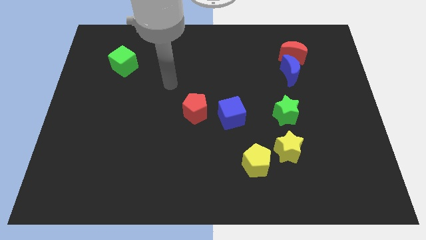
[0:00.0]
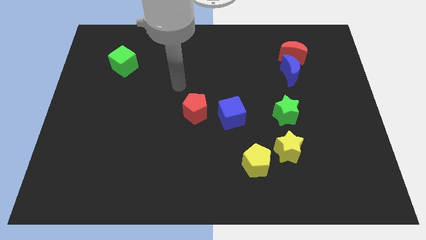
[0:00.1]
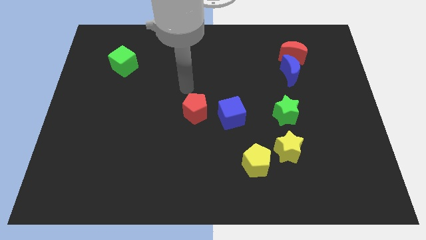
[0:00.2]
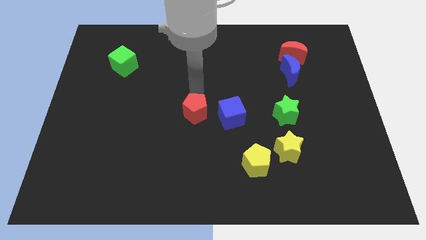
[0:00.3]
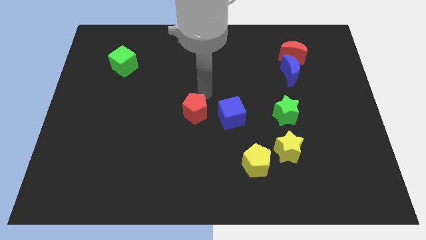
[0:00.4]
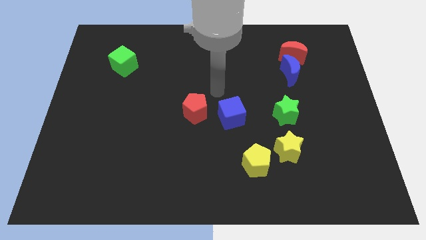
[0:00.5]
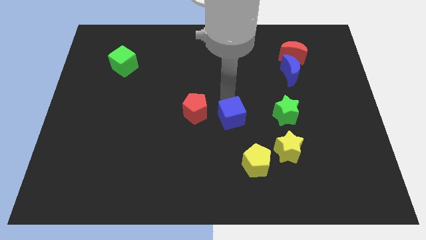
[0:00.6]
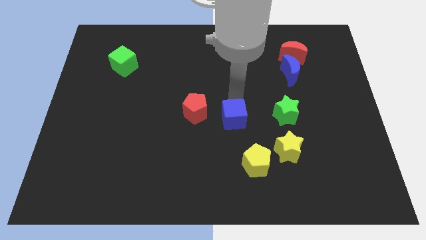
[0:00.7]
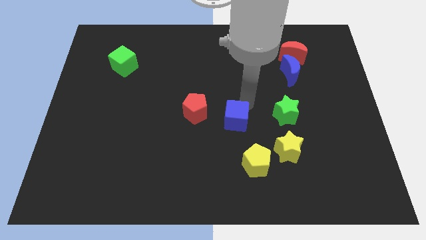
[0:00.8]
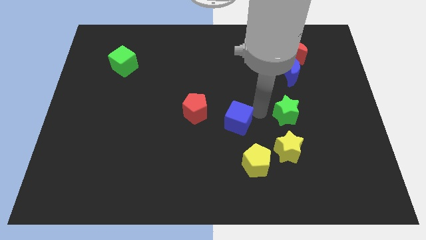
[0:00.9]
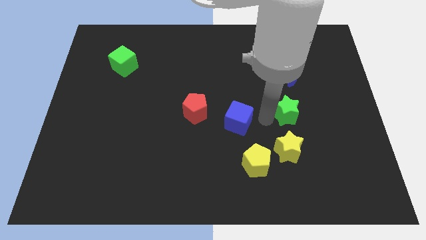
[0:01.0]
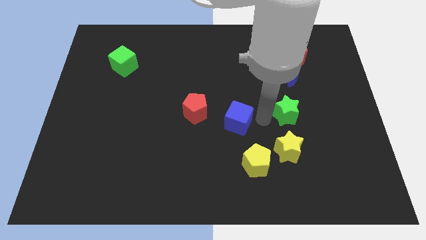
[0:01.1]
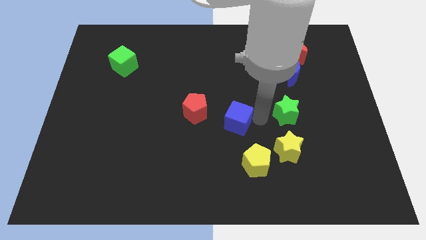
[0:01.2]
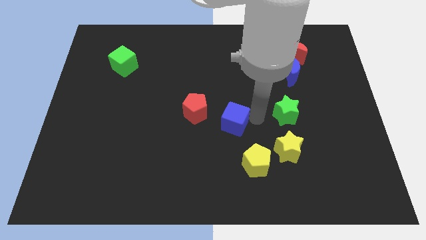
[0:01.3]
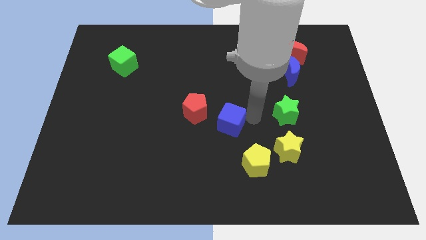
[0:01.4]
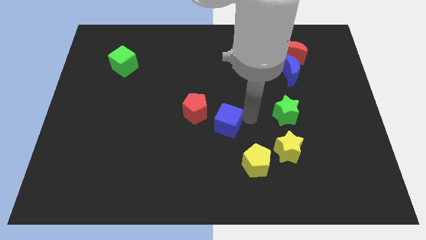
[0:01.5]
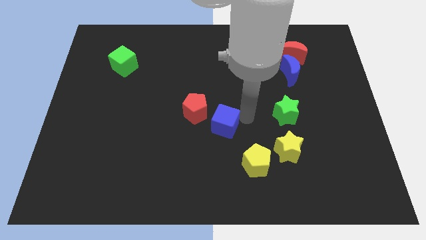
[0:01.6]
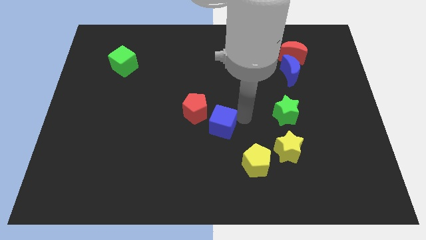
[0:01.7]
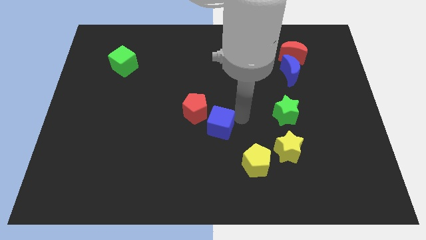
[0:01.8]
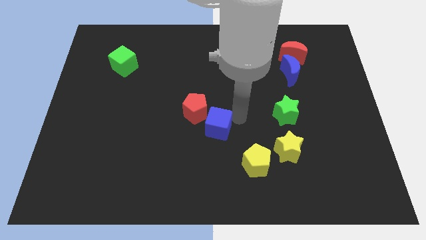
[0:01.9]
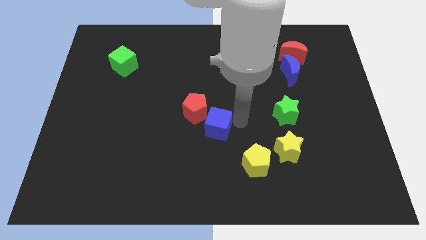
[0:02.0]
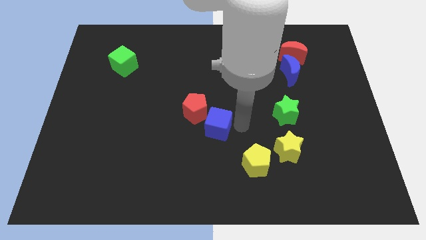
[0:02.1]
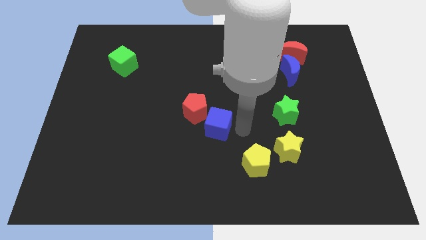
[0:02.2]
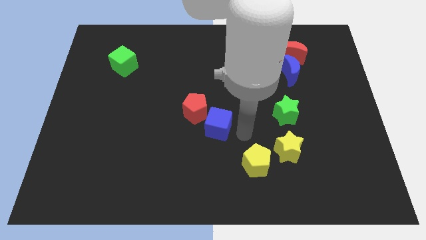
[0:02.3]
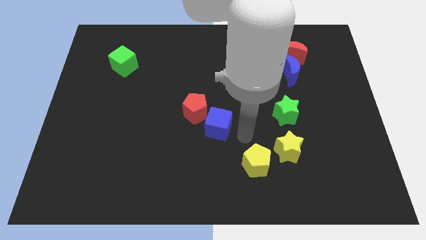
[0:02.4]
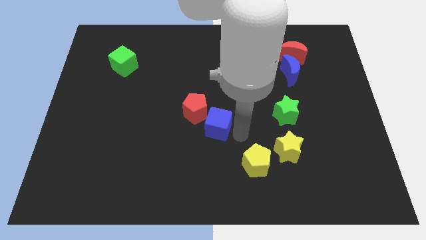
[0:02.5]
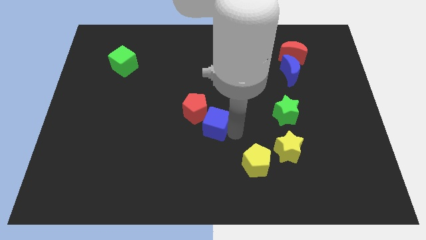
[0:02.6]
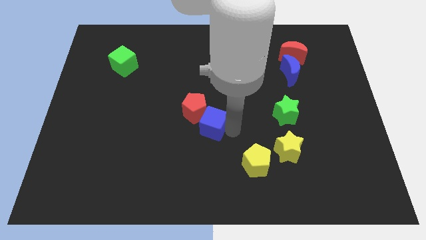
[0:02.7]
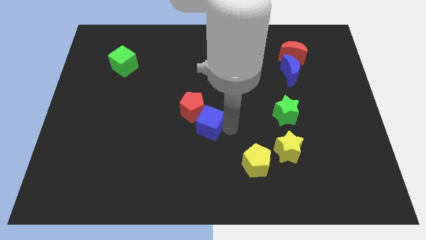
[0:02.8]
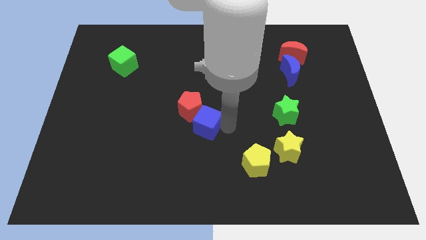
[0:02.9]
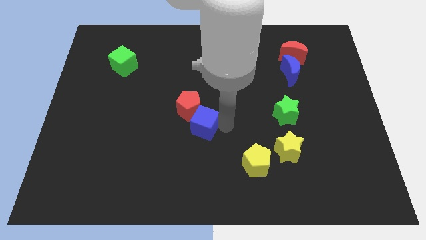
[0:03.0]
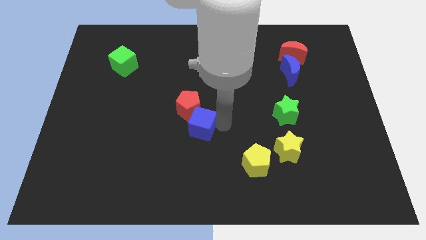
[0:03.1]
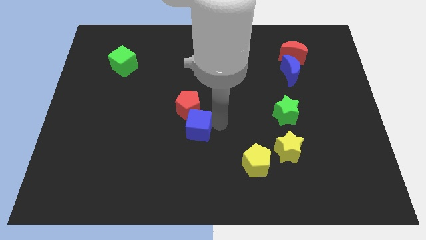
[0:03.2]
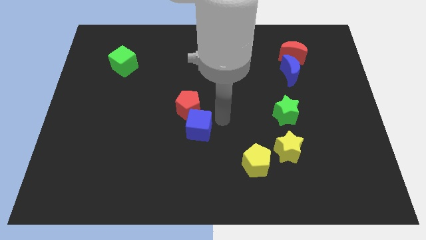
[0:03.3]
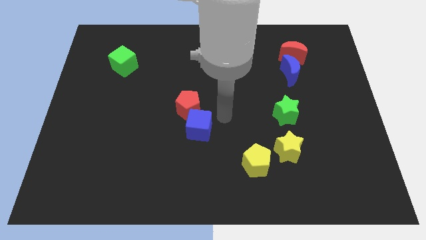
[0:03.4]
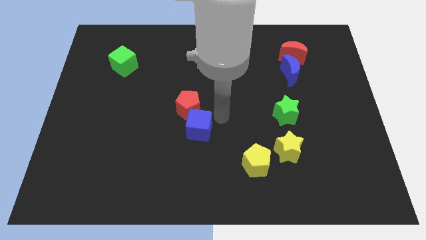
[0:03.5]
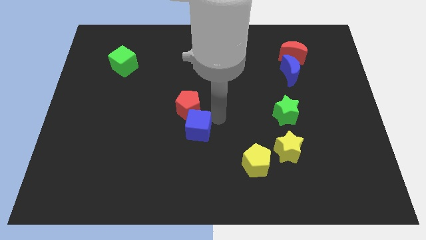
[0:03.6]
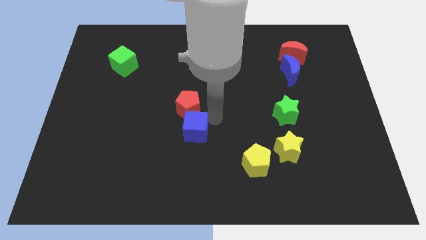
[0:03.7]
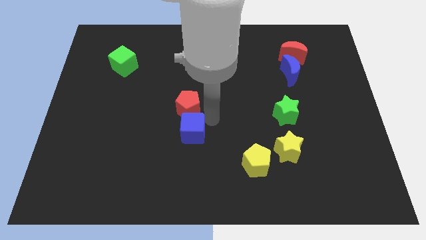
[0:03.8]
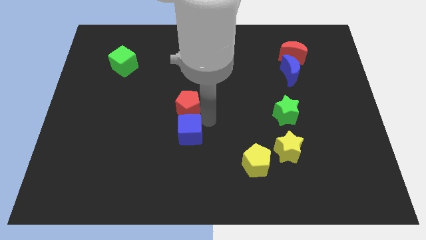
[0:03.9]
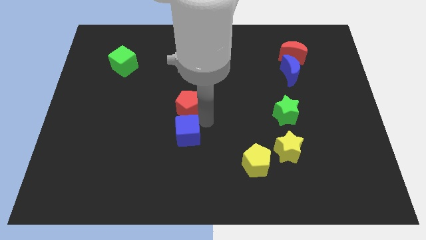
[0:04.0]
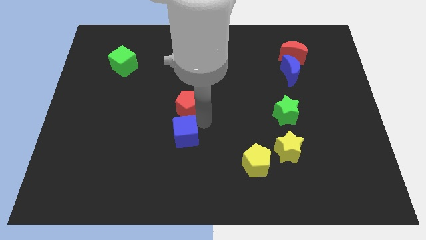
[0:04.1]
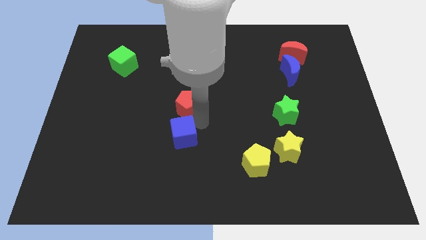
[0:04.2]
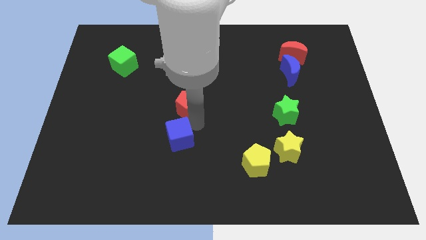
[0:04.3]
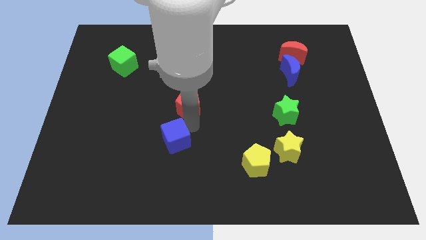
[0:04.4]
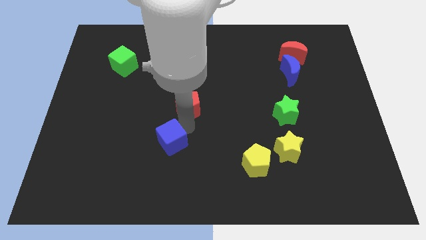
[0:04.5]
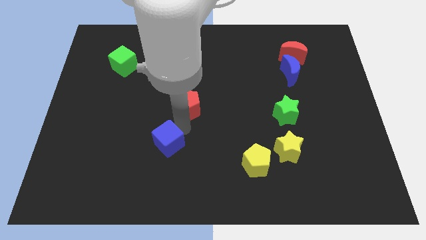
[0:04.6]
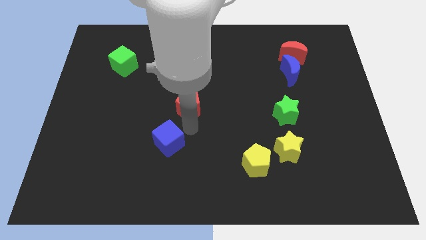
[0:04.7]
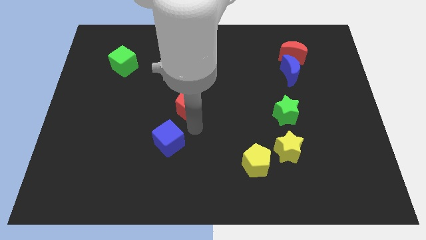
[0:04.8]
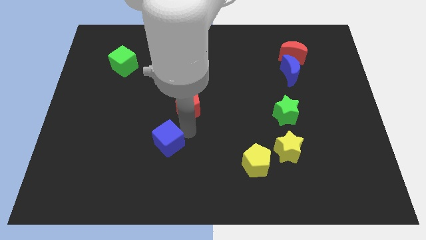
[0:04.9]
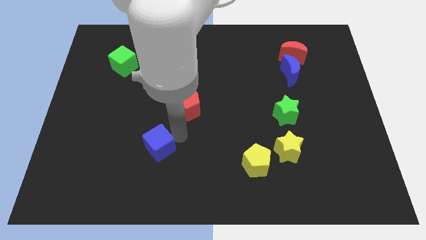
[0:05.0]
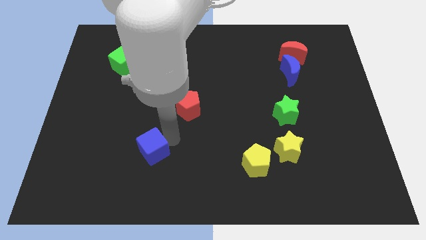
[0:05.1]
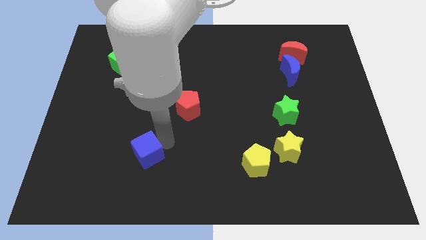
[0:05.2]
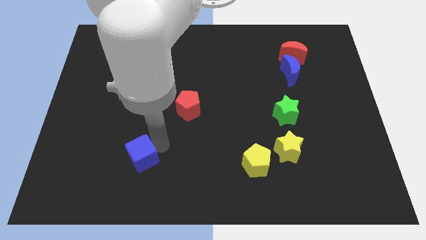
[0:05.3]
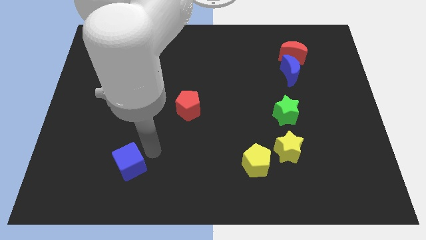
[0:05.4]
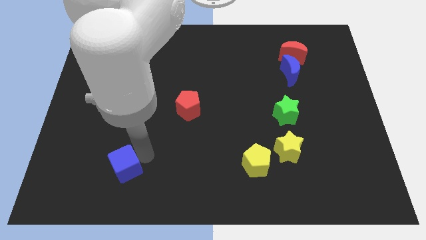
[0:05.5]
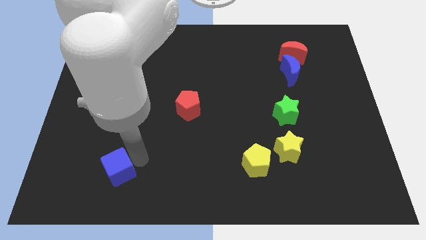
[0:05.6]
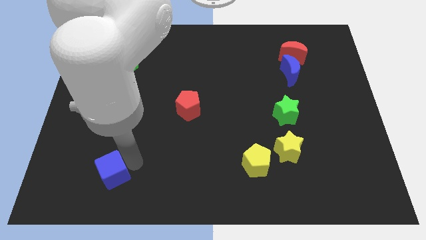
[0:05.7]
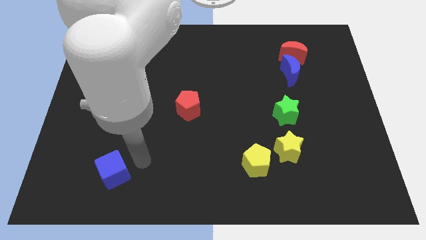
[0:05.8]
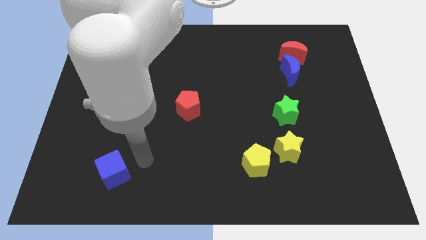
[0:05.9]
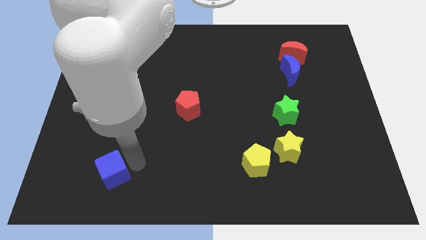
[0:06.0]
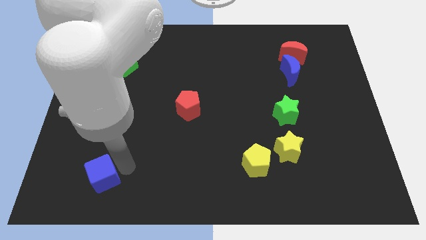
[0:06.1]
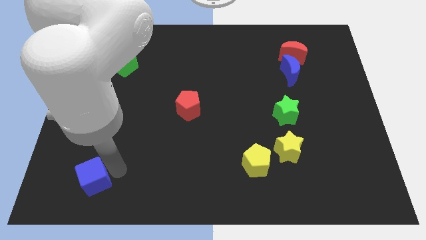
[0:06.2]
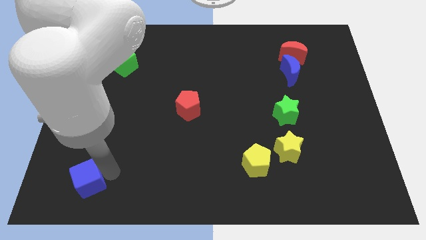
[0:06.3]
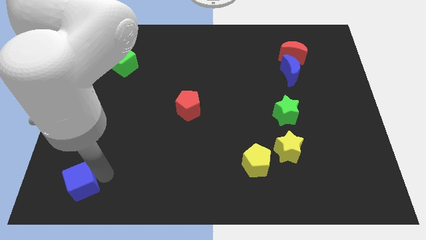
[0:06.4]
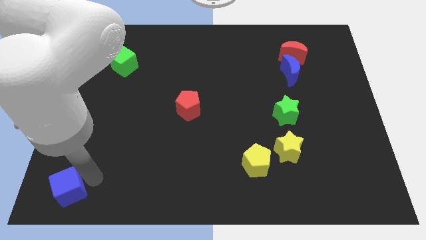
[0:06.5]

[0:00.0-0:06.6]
put the blue cube to the bottom left of the board
